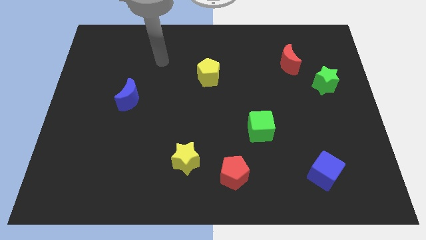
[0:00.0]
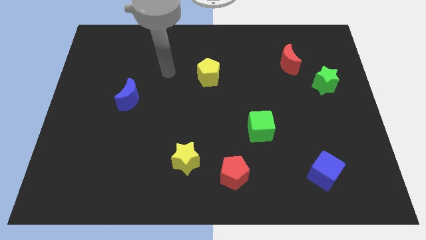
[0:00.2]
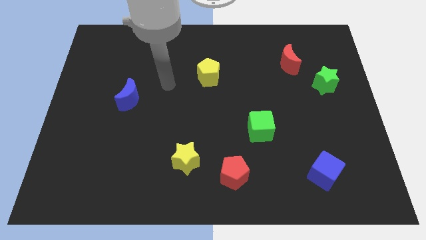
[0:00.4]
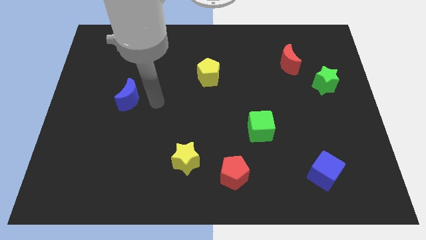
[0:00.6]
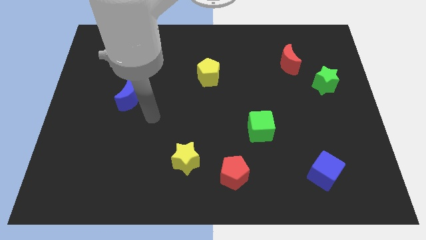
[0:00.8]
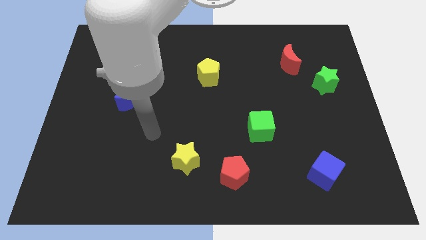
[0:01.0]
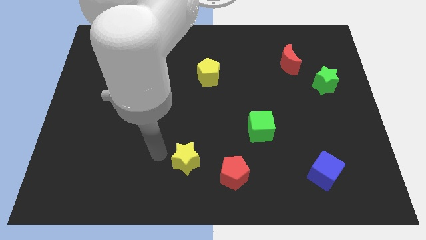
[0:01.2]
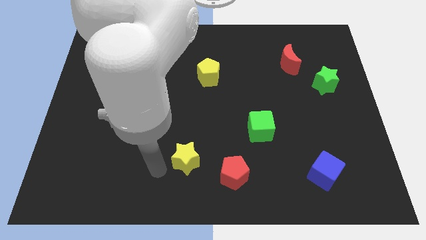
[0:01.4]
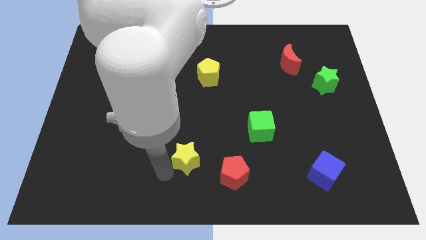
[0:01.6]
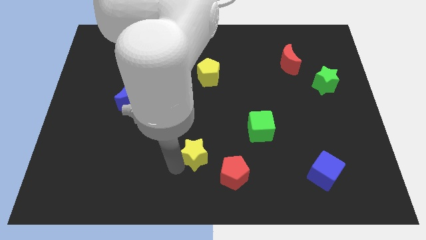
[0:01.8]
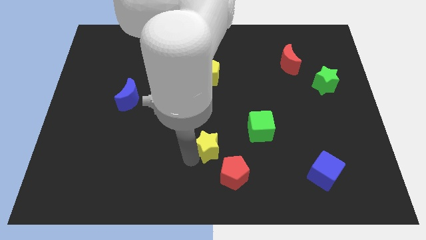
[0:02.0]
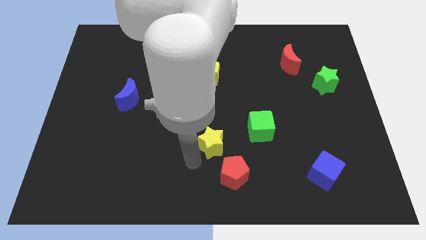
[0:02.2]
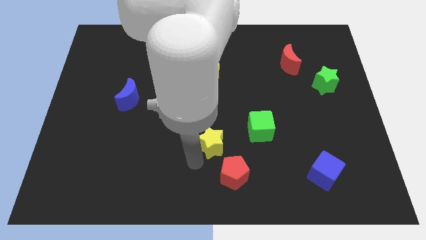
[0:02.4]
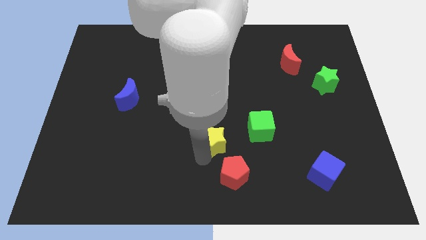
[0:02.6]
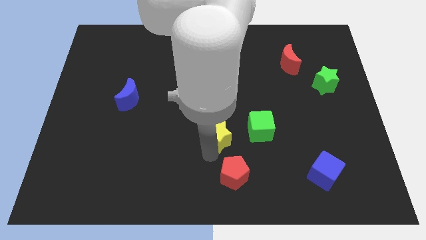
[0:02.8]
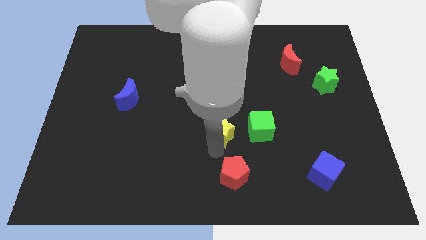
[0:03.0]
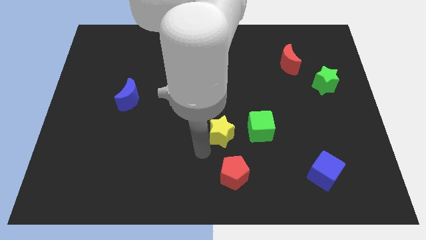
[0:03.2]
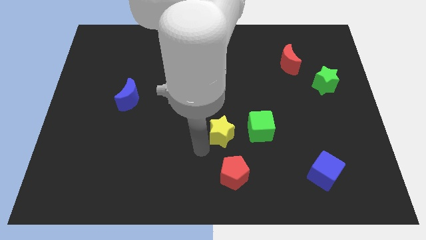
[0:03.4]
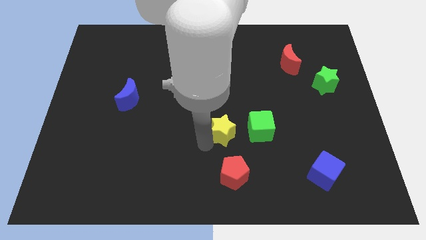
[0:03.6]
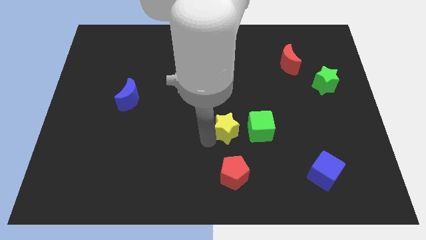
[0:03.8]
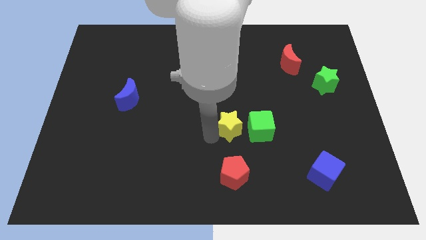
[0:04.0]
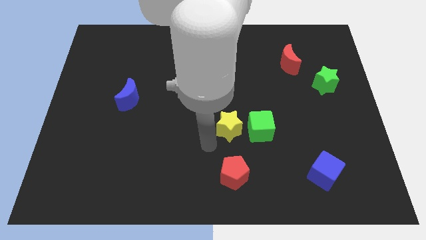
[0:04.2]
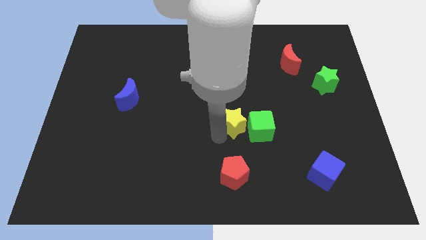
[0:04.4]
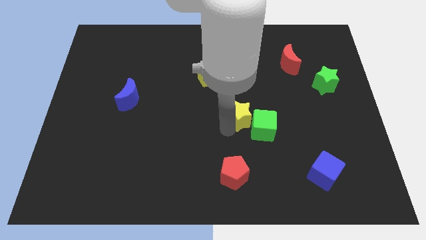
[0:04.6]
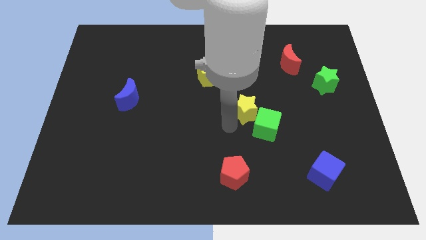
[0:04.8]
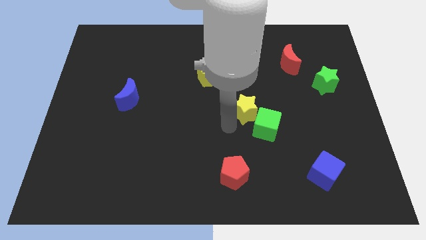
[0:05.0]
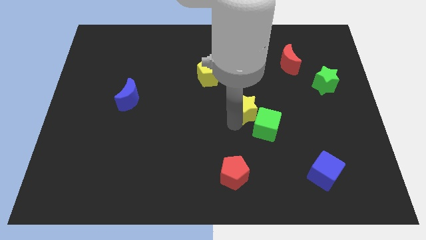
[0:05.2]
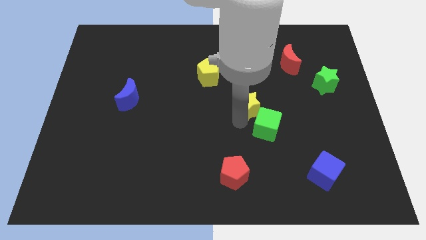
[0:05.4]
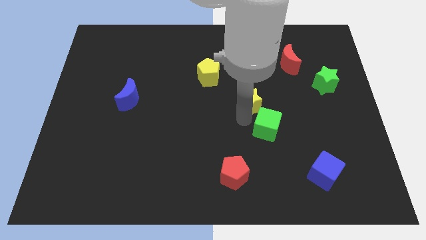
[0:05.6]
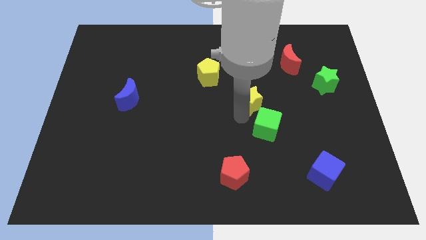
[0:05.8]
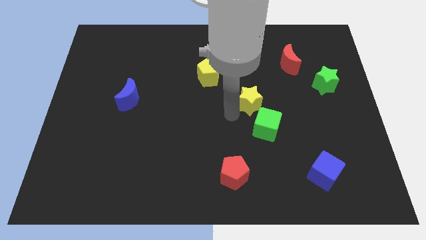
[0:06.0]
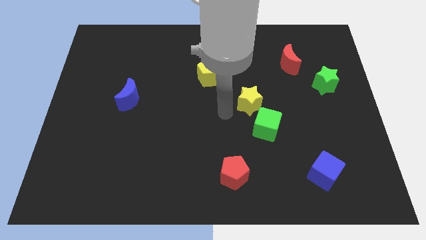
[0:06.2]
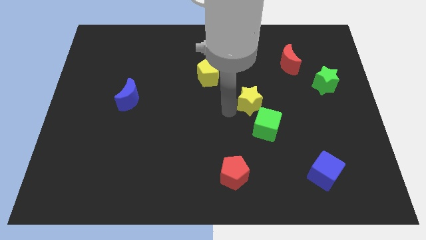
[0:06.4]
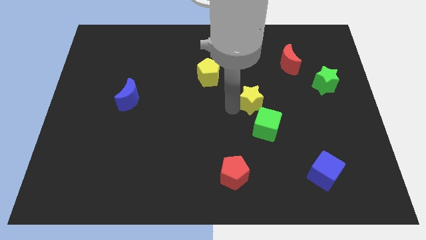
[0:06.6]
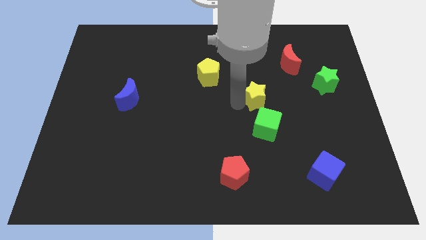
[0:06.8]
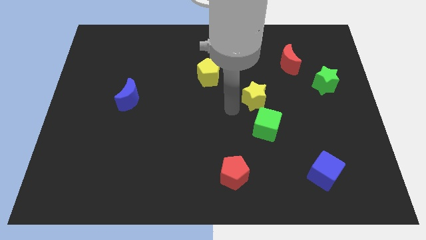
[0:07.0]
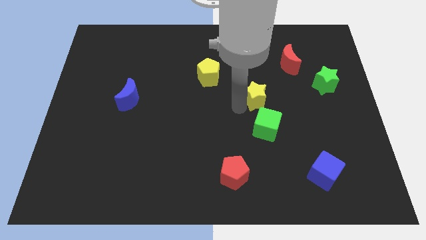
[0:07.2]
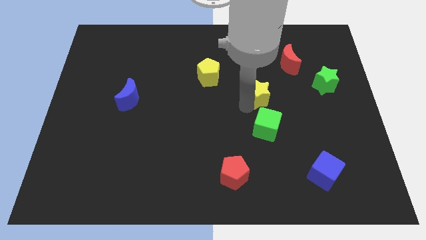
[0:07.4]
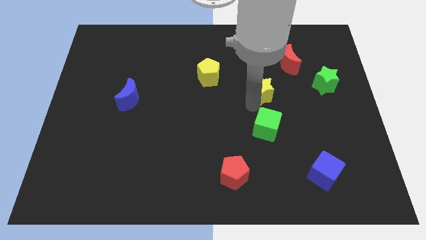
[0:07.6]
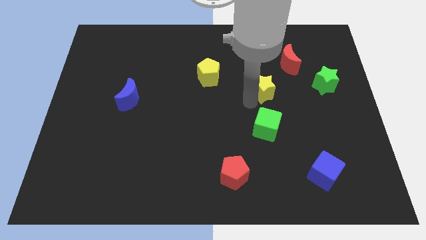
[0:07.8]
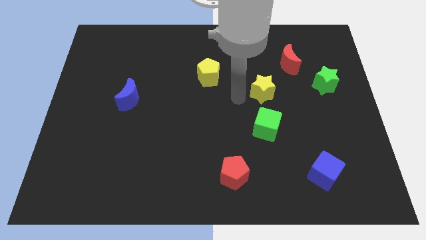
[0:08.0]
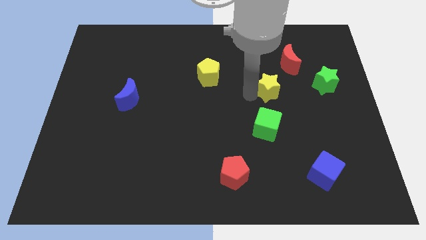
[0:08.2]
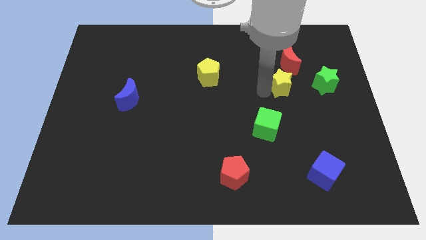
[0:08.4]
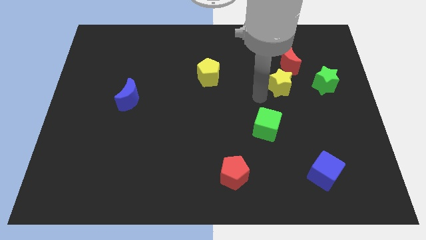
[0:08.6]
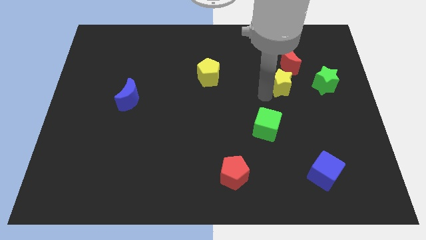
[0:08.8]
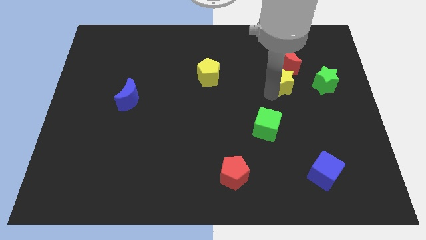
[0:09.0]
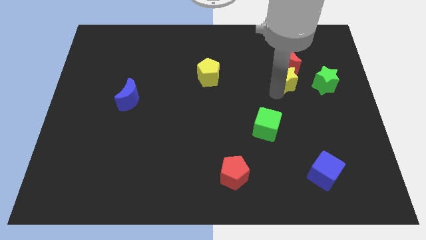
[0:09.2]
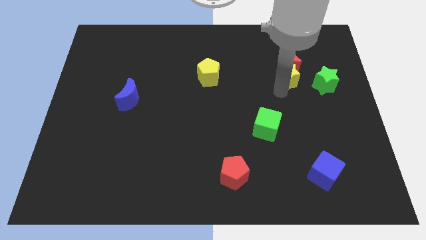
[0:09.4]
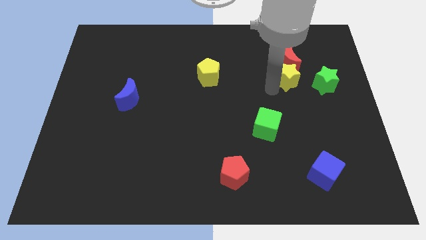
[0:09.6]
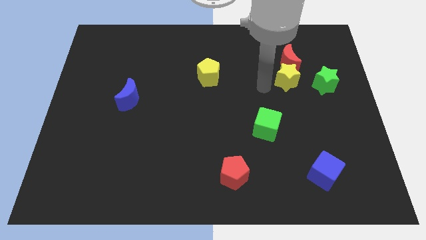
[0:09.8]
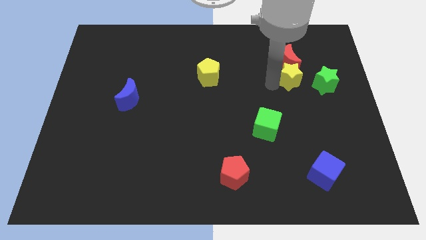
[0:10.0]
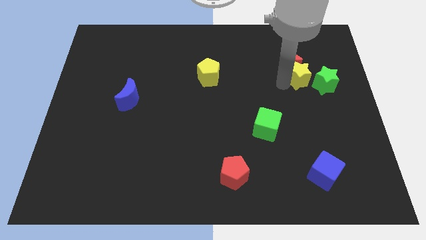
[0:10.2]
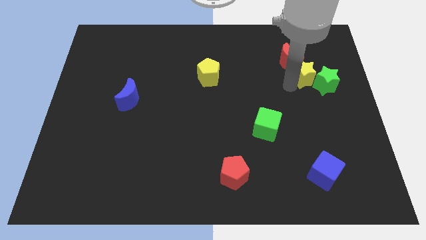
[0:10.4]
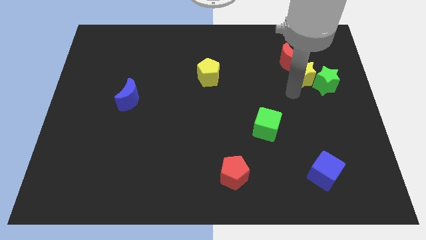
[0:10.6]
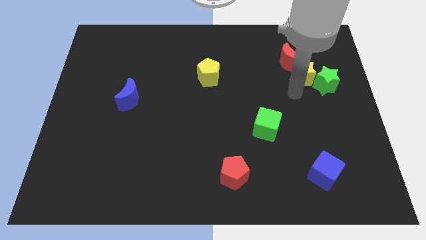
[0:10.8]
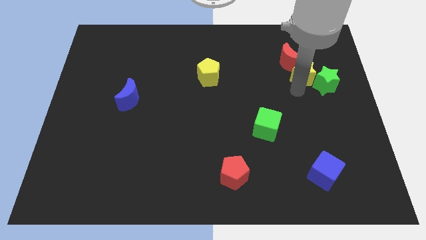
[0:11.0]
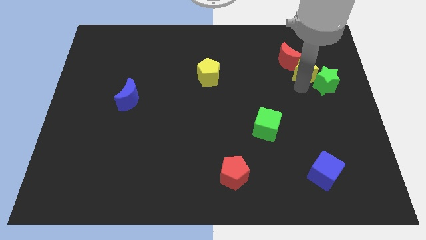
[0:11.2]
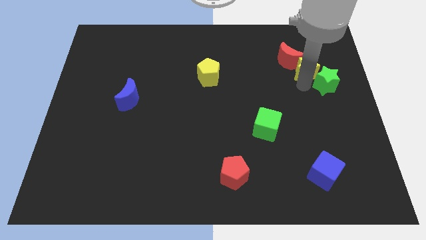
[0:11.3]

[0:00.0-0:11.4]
move the yellow star to the top side of the green star

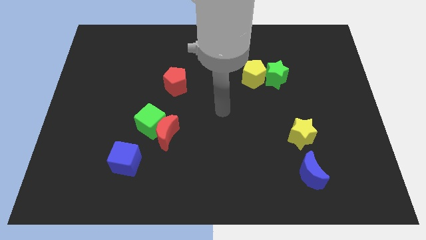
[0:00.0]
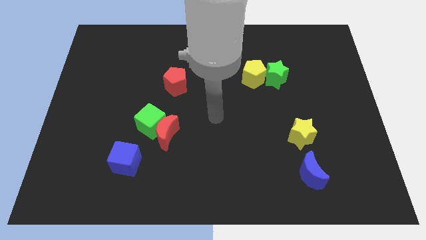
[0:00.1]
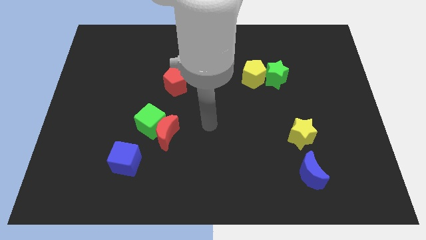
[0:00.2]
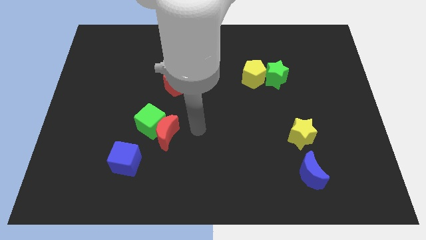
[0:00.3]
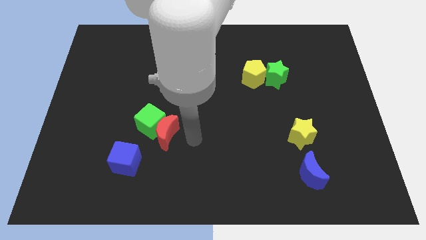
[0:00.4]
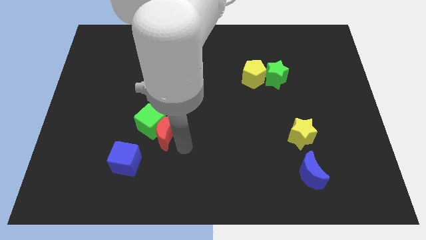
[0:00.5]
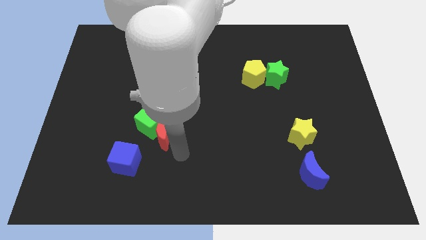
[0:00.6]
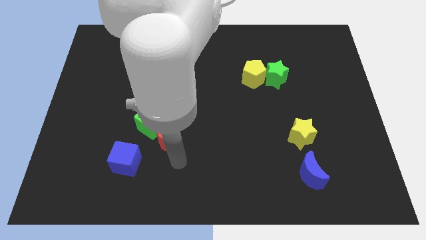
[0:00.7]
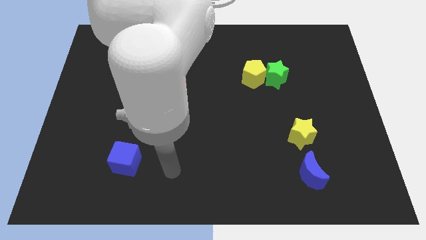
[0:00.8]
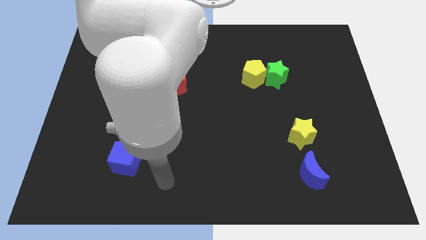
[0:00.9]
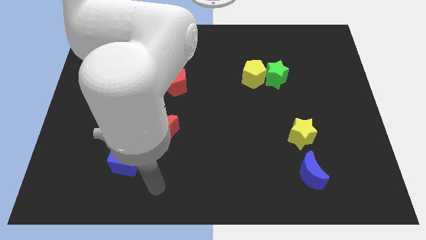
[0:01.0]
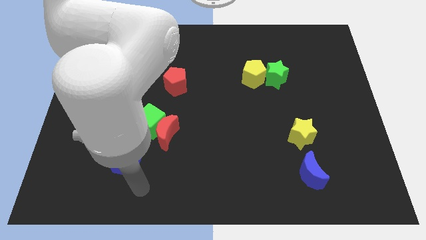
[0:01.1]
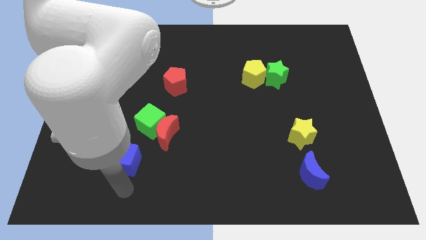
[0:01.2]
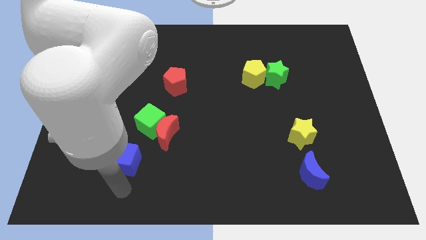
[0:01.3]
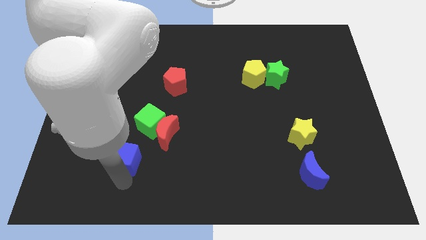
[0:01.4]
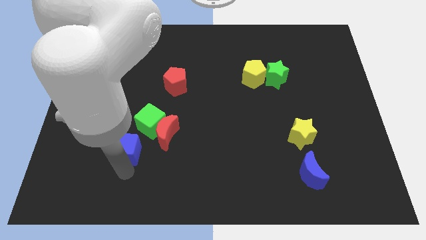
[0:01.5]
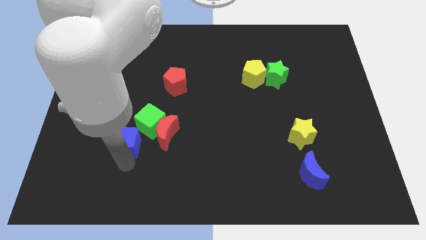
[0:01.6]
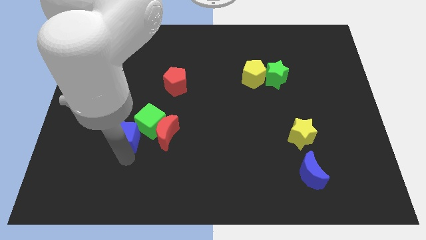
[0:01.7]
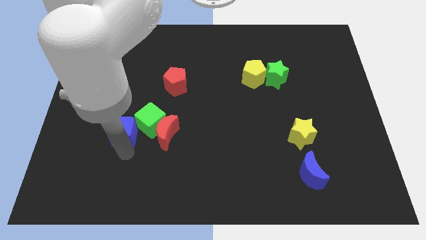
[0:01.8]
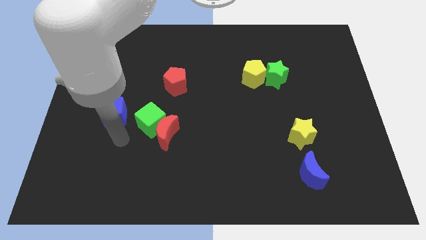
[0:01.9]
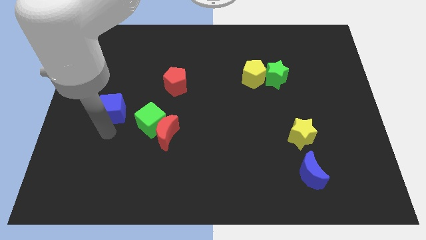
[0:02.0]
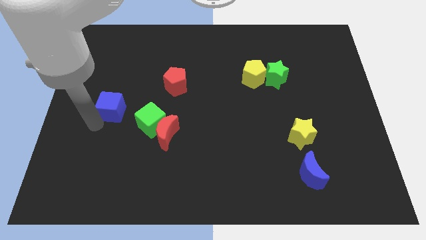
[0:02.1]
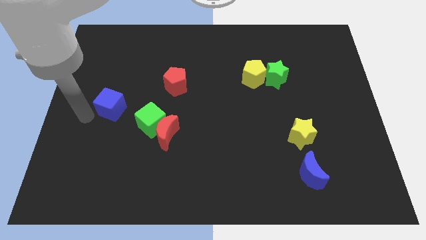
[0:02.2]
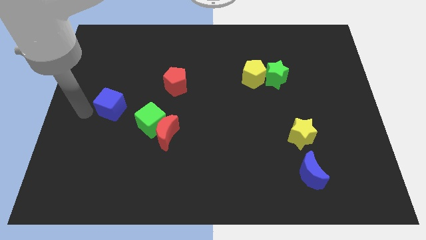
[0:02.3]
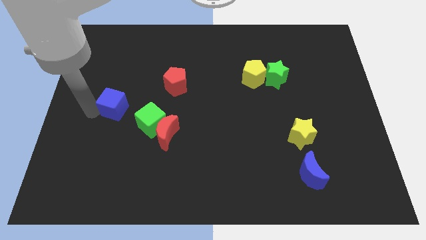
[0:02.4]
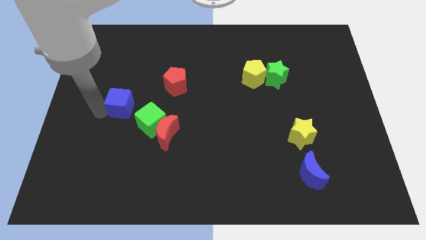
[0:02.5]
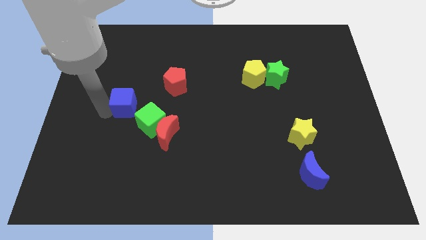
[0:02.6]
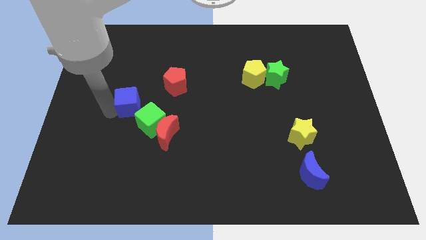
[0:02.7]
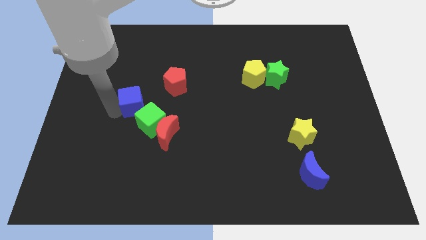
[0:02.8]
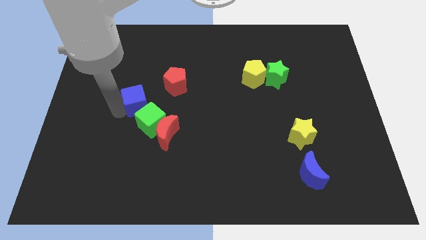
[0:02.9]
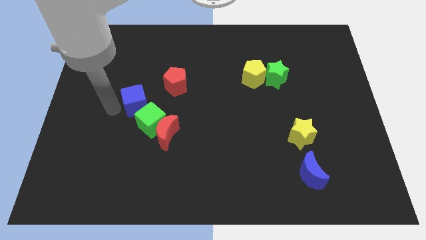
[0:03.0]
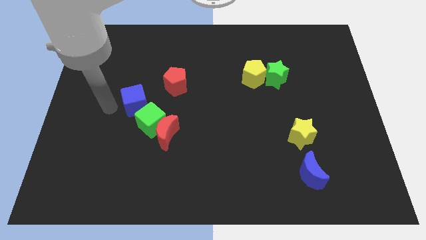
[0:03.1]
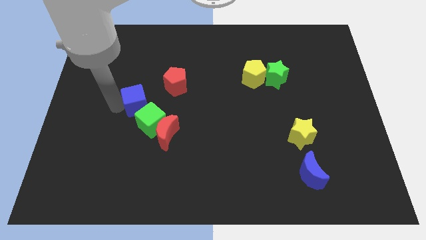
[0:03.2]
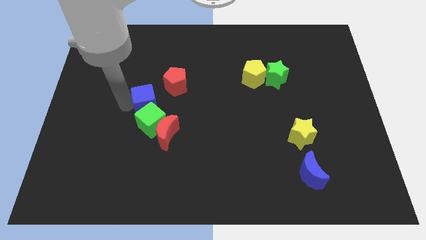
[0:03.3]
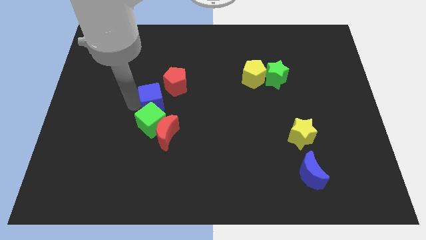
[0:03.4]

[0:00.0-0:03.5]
slide the blue cube above the red moon
